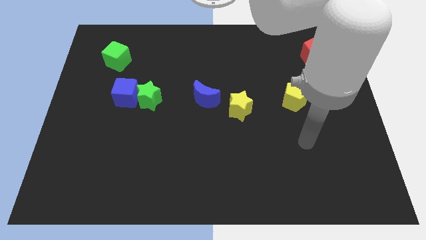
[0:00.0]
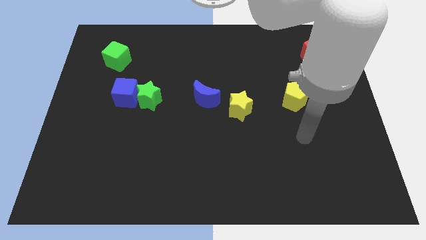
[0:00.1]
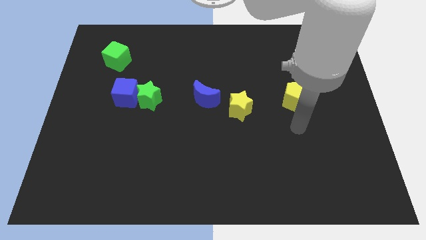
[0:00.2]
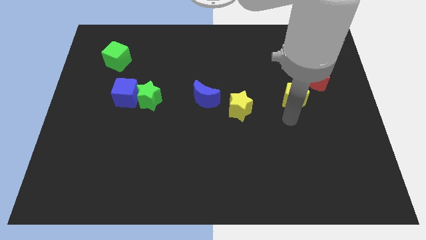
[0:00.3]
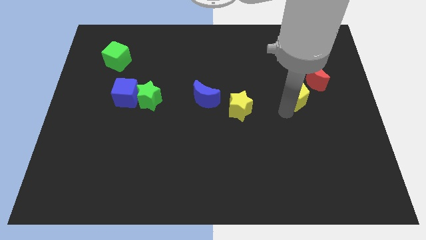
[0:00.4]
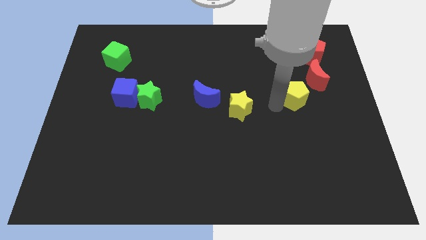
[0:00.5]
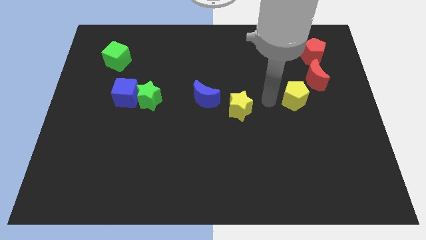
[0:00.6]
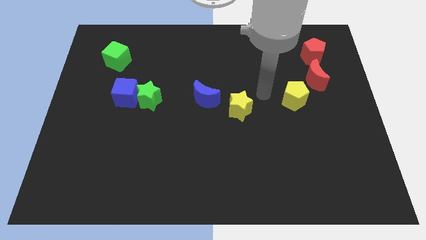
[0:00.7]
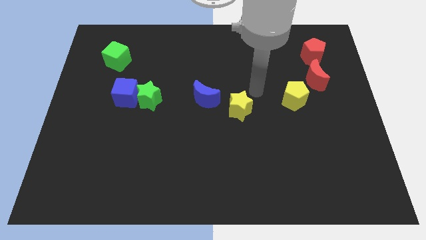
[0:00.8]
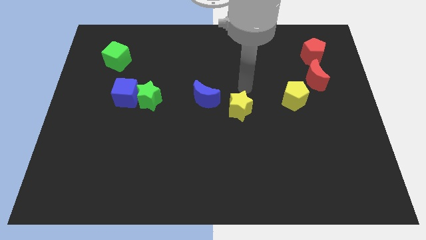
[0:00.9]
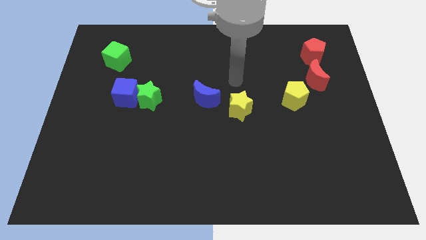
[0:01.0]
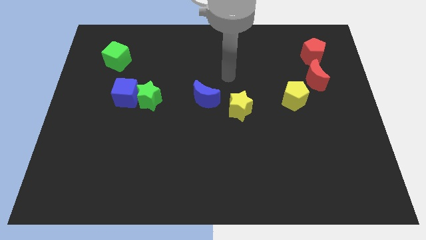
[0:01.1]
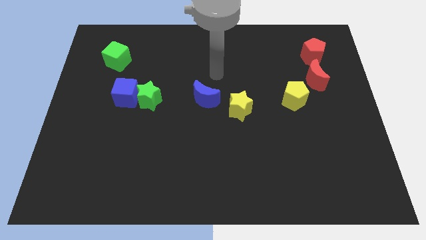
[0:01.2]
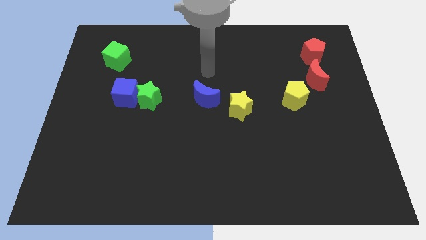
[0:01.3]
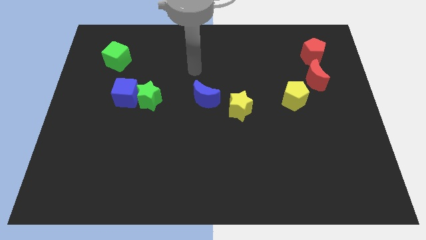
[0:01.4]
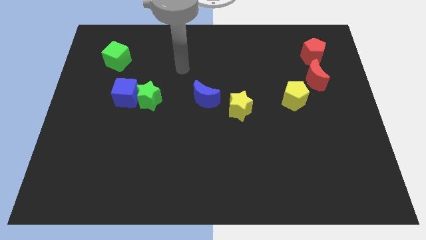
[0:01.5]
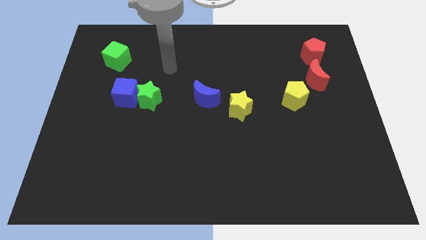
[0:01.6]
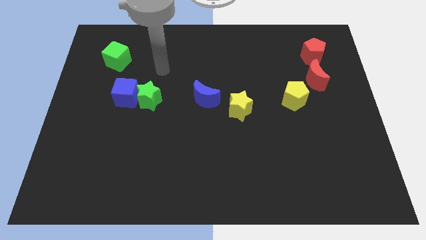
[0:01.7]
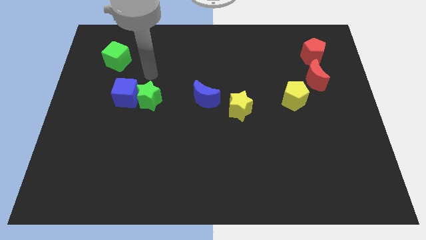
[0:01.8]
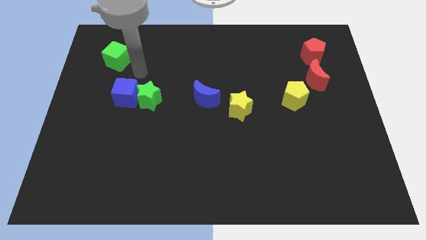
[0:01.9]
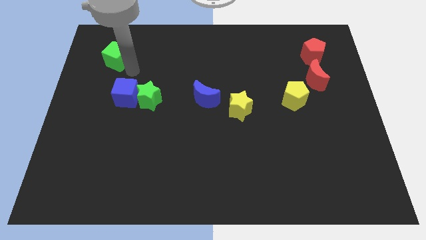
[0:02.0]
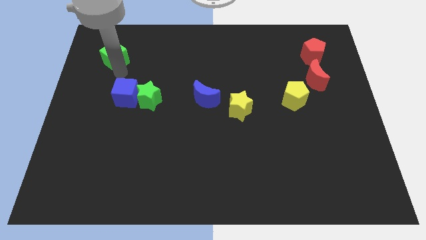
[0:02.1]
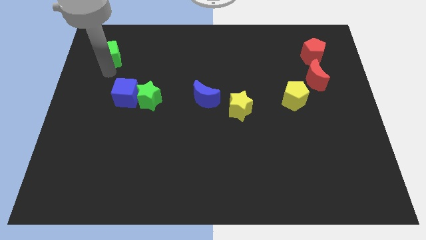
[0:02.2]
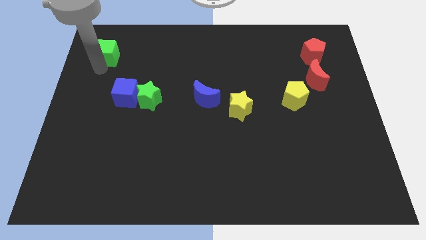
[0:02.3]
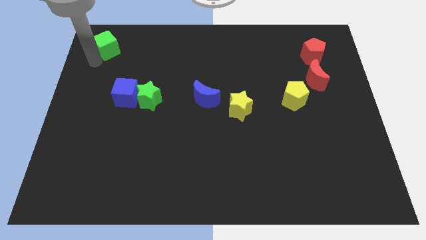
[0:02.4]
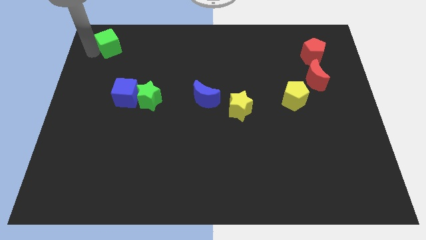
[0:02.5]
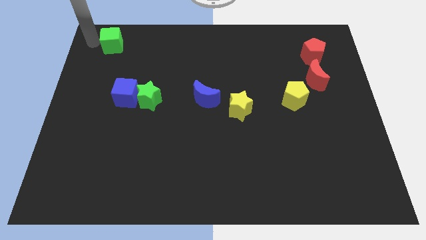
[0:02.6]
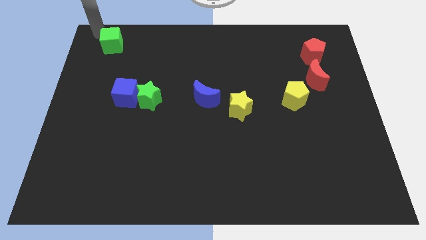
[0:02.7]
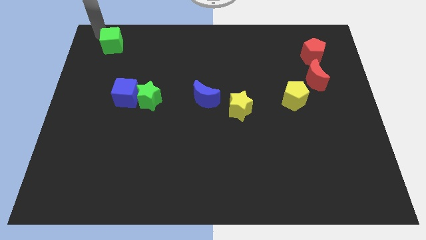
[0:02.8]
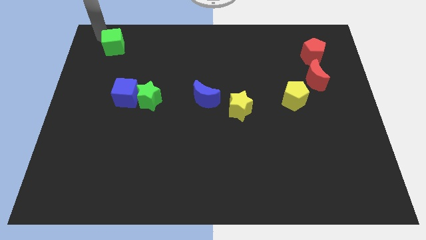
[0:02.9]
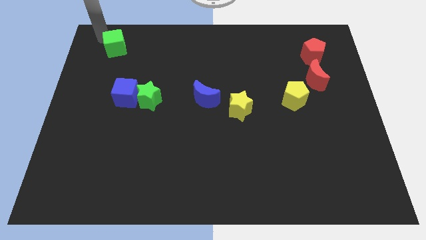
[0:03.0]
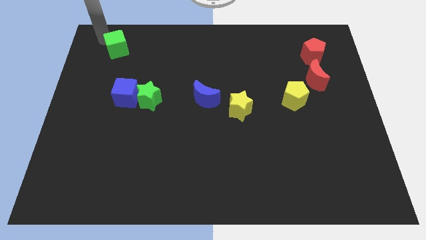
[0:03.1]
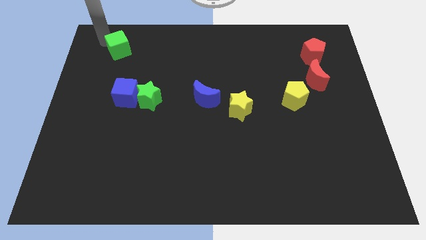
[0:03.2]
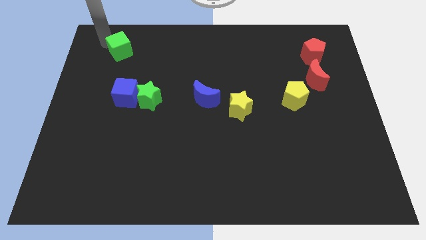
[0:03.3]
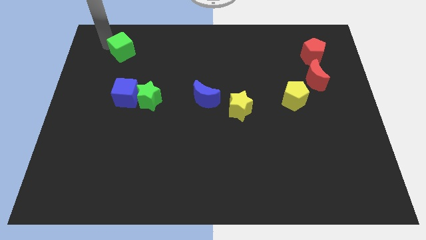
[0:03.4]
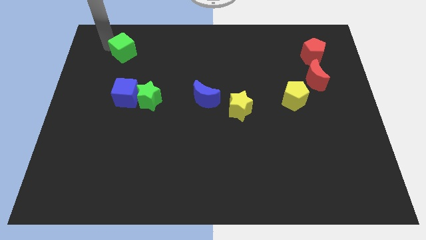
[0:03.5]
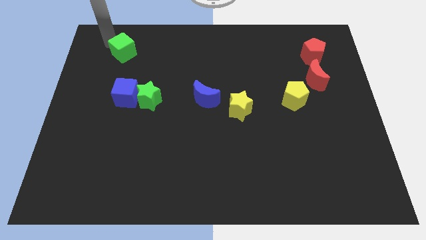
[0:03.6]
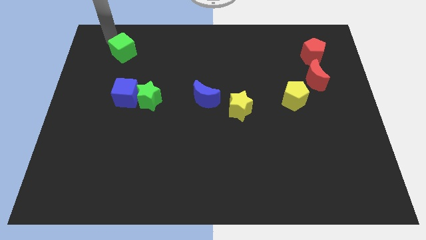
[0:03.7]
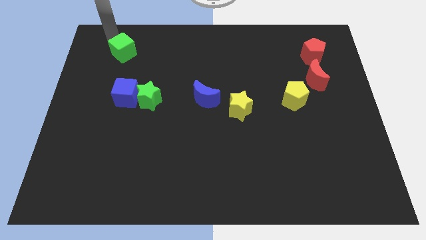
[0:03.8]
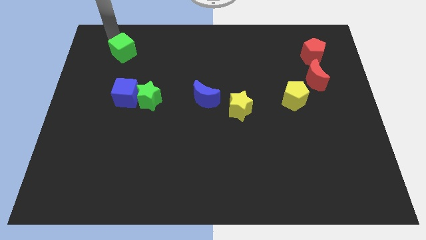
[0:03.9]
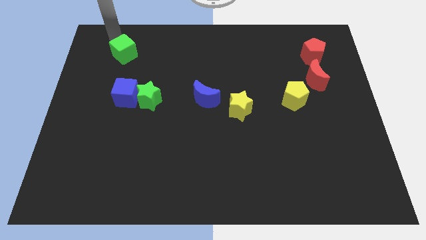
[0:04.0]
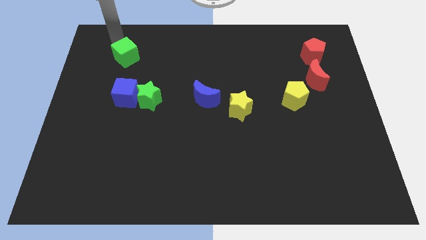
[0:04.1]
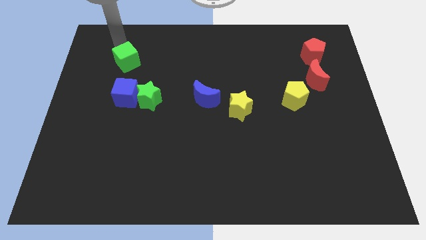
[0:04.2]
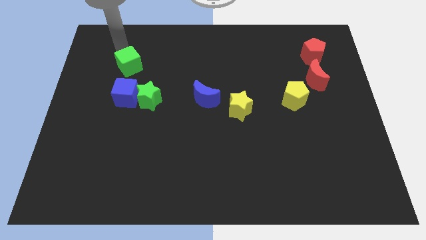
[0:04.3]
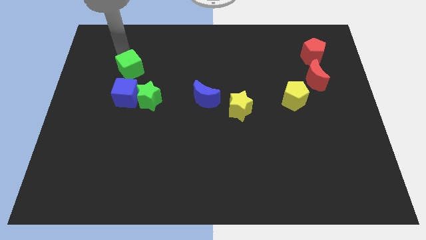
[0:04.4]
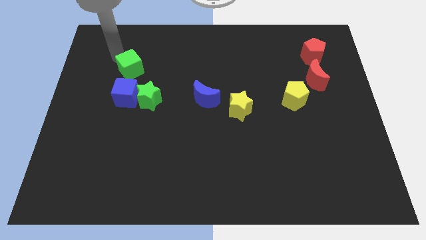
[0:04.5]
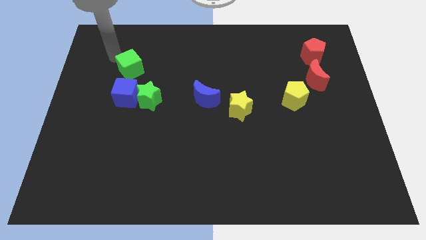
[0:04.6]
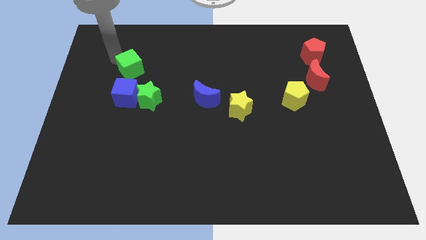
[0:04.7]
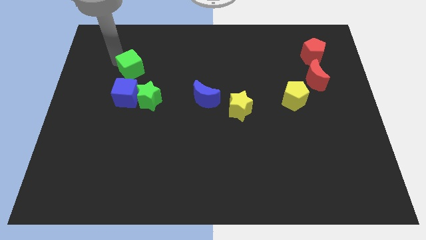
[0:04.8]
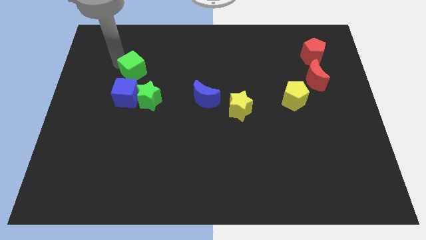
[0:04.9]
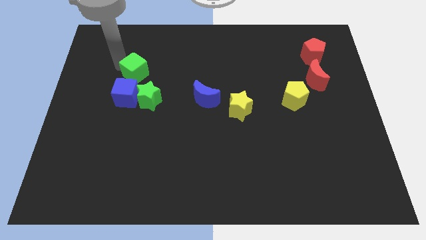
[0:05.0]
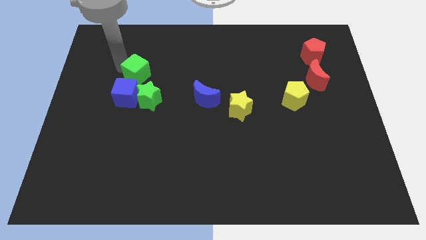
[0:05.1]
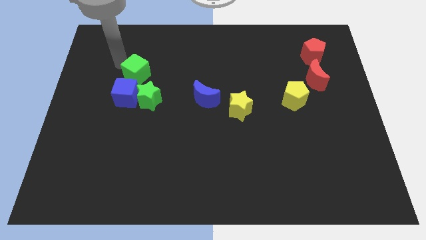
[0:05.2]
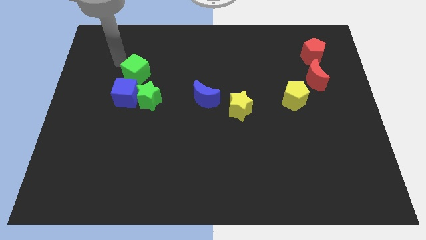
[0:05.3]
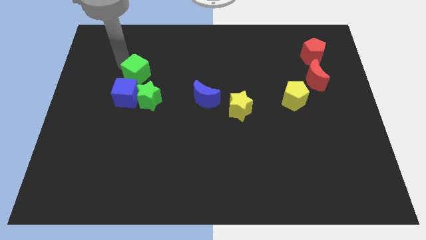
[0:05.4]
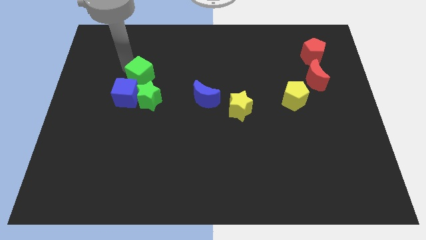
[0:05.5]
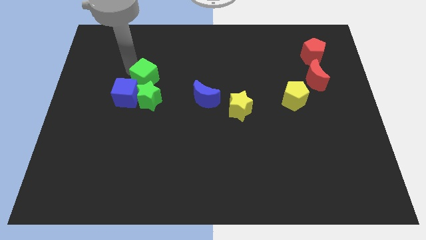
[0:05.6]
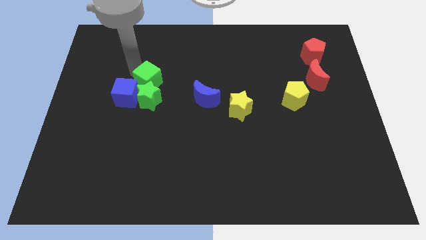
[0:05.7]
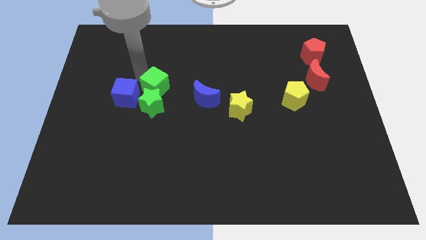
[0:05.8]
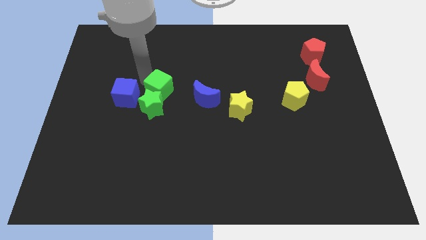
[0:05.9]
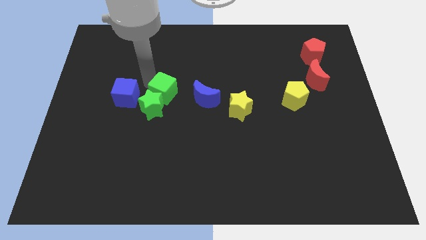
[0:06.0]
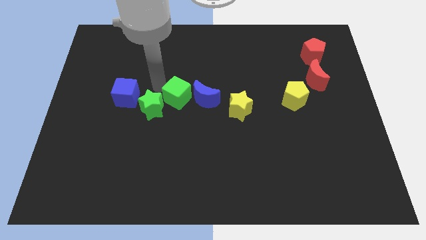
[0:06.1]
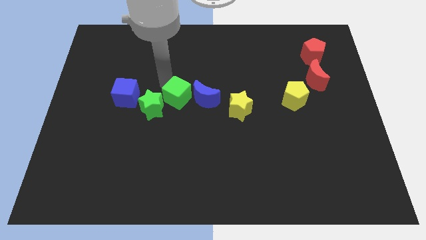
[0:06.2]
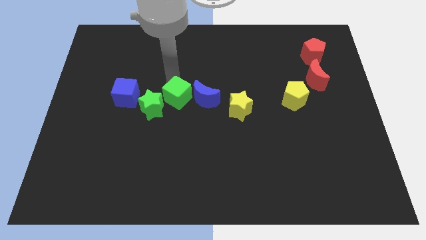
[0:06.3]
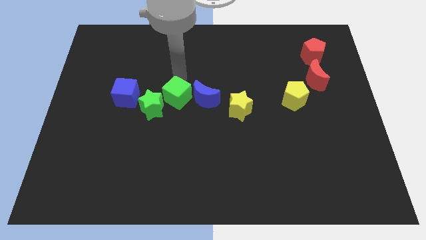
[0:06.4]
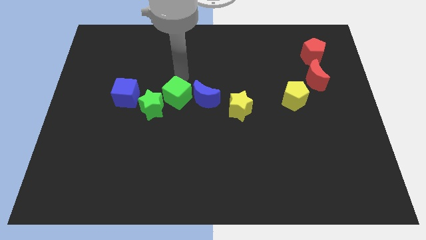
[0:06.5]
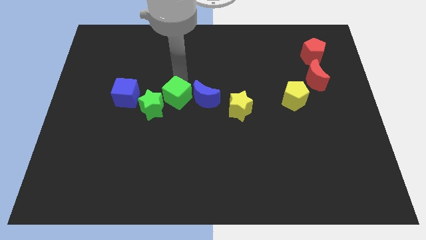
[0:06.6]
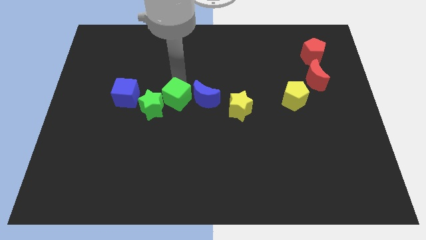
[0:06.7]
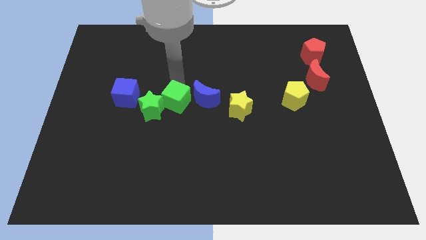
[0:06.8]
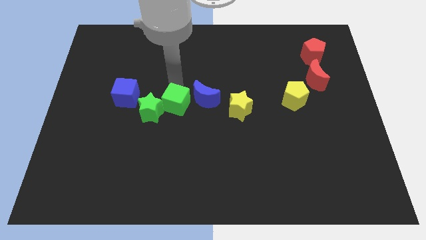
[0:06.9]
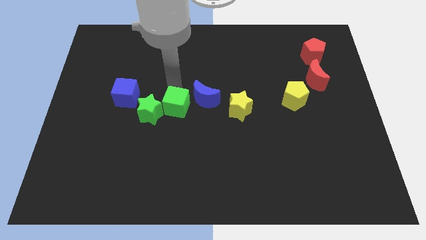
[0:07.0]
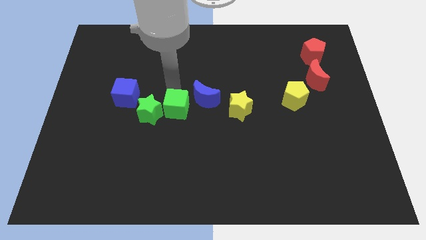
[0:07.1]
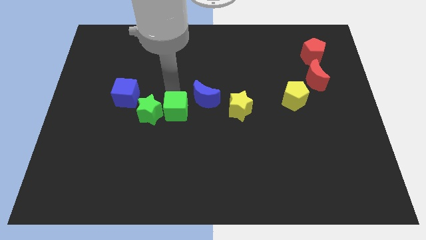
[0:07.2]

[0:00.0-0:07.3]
slide the green cube diagonally down and to the right of the green star

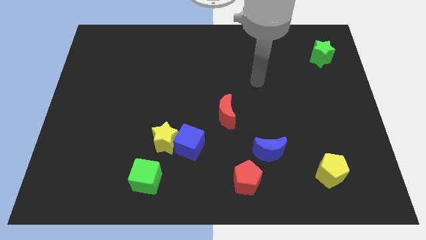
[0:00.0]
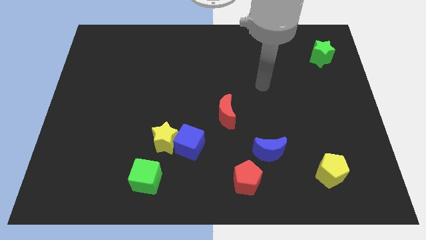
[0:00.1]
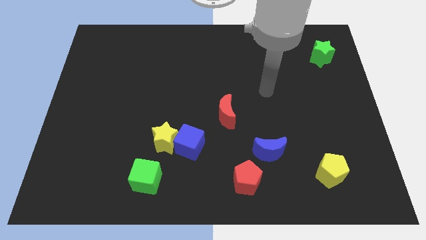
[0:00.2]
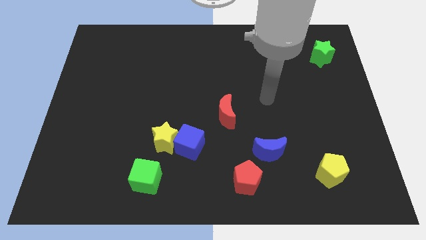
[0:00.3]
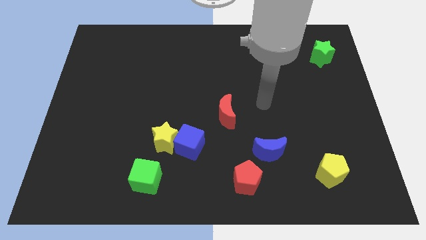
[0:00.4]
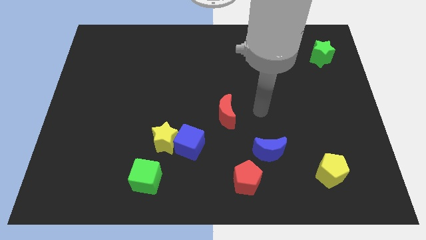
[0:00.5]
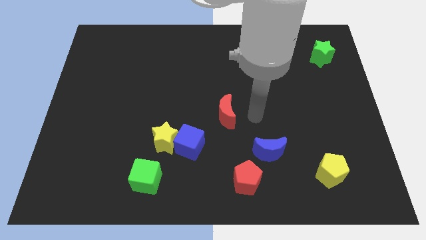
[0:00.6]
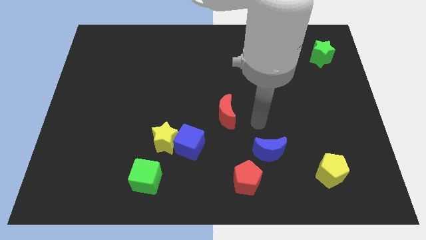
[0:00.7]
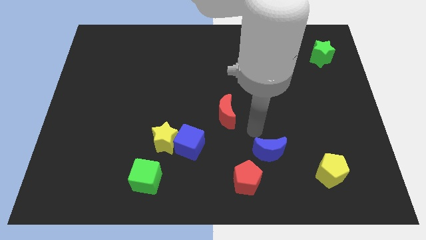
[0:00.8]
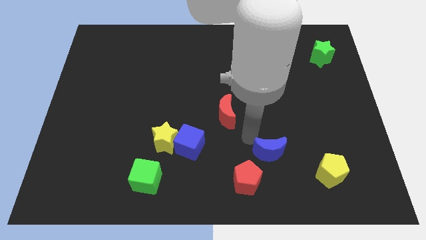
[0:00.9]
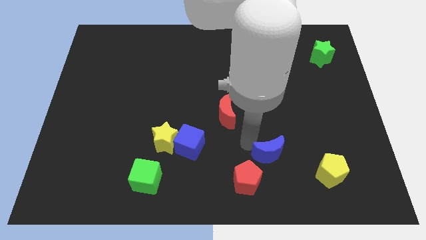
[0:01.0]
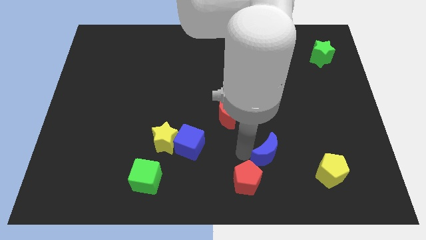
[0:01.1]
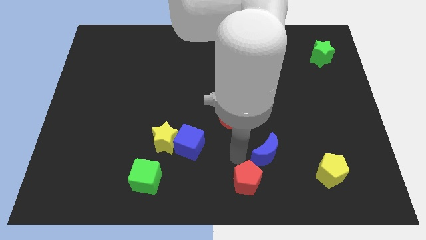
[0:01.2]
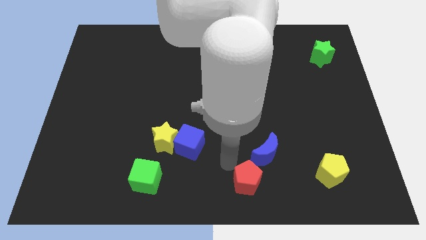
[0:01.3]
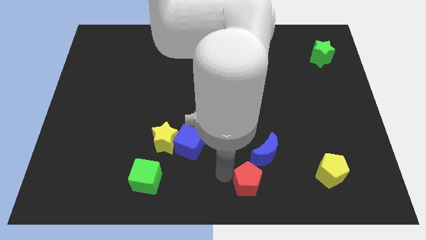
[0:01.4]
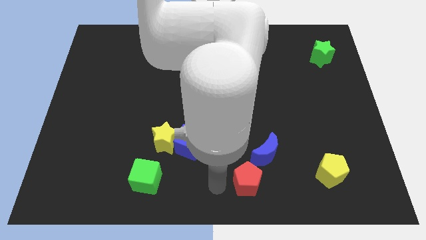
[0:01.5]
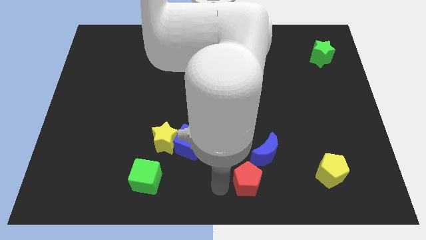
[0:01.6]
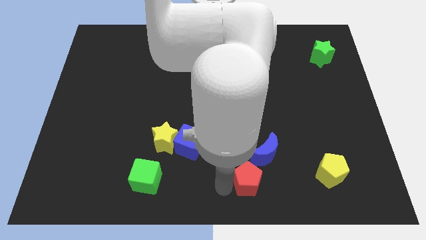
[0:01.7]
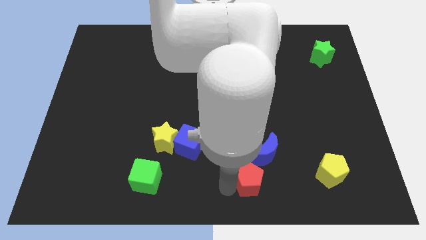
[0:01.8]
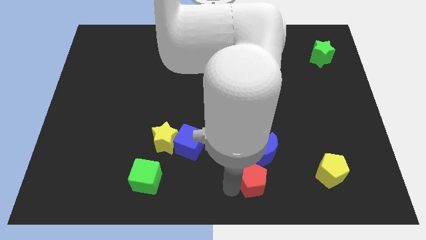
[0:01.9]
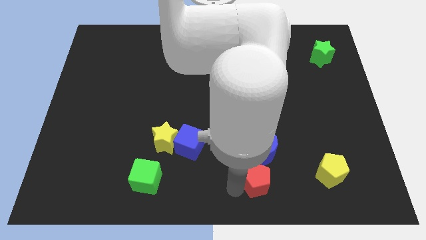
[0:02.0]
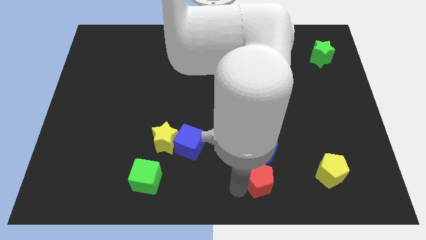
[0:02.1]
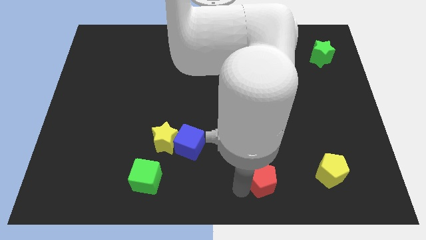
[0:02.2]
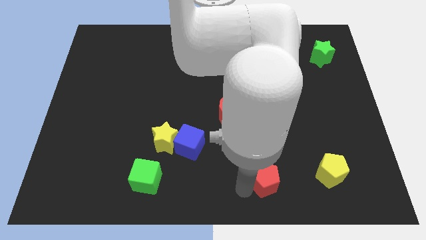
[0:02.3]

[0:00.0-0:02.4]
put the red pentagon diagonally down and to the right of the blue moon
